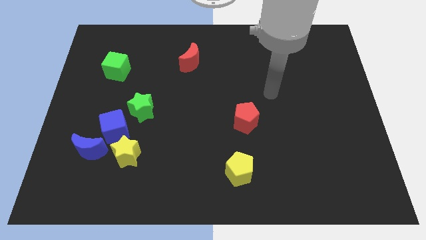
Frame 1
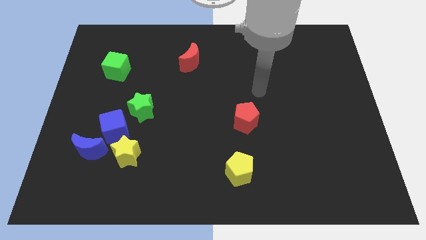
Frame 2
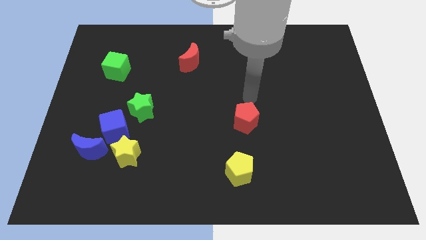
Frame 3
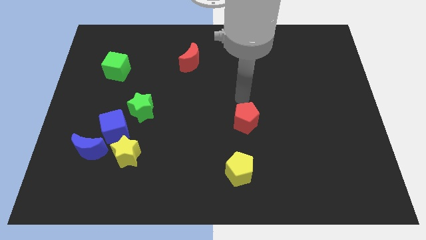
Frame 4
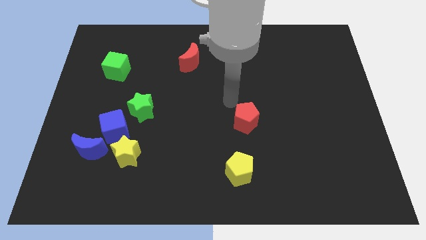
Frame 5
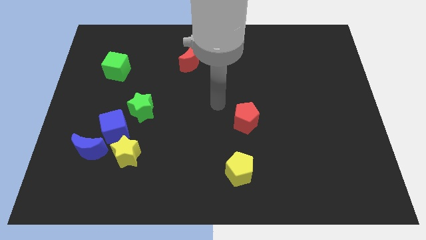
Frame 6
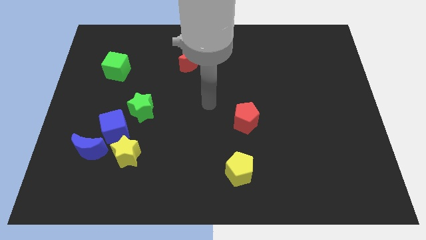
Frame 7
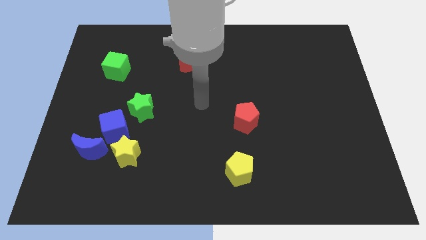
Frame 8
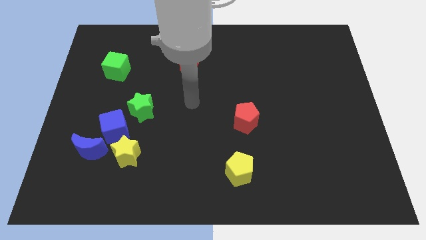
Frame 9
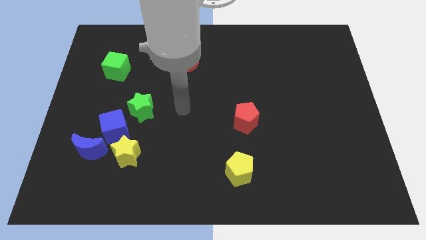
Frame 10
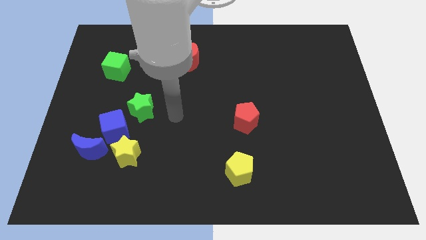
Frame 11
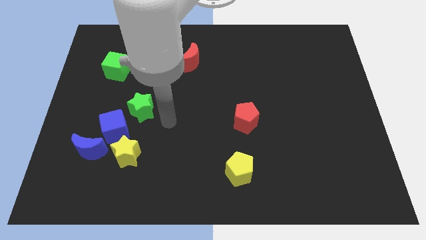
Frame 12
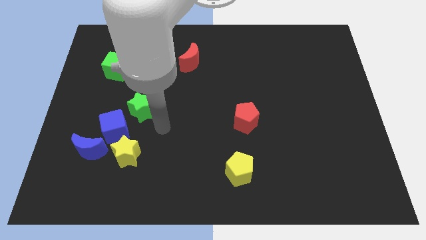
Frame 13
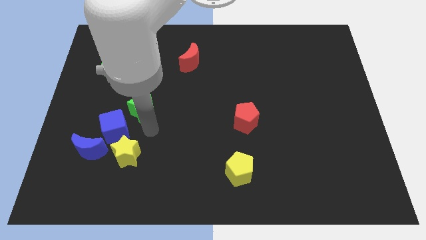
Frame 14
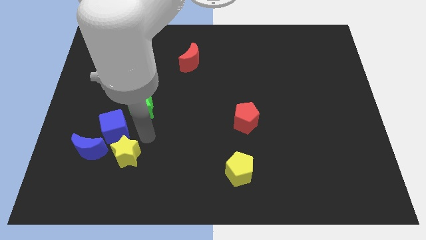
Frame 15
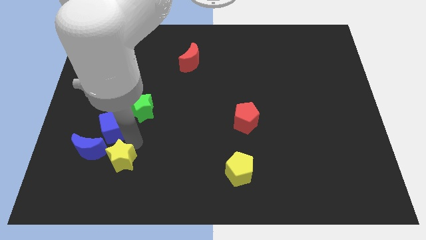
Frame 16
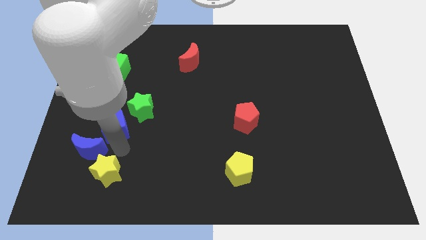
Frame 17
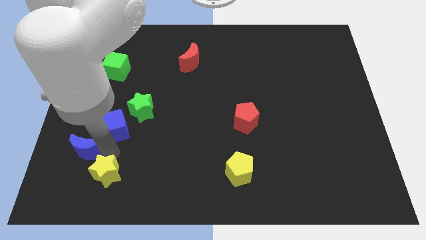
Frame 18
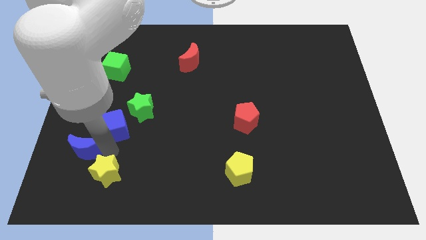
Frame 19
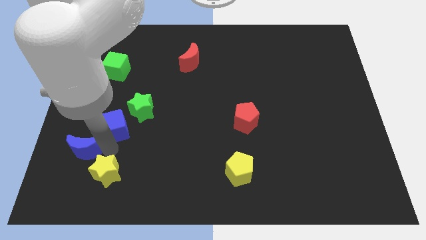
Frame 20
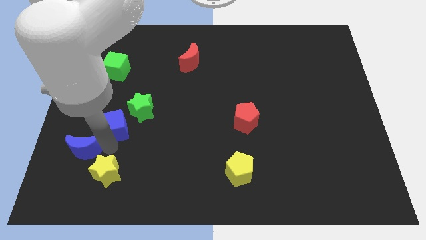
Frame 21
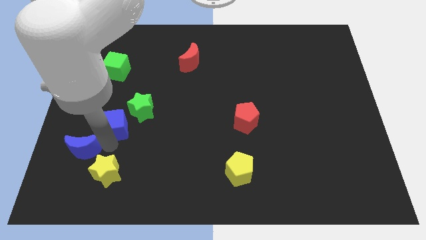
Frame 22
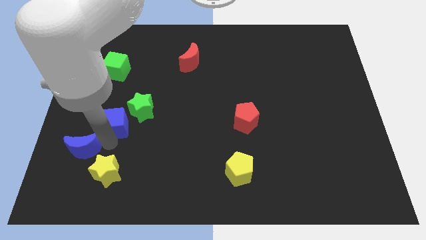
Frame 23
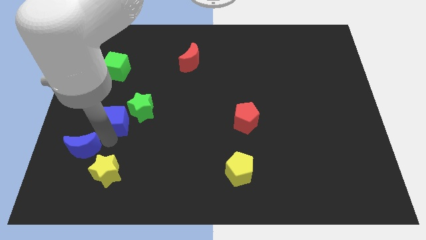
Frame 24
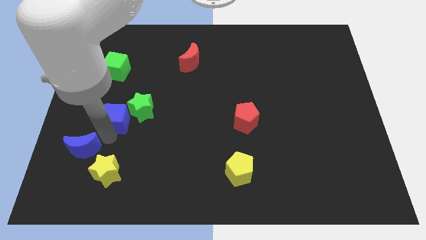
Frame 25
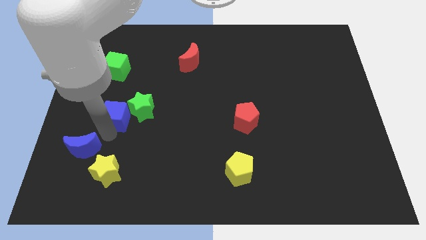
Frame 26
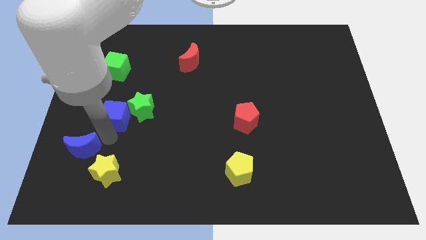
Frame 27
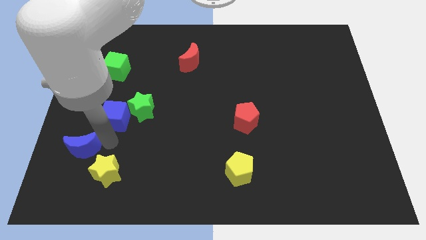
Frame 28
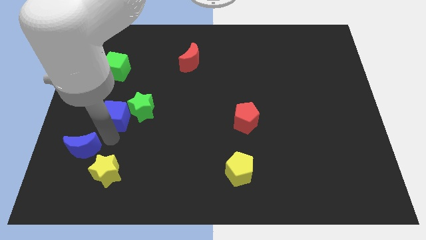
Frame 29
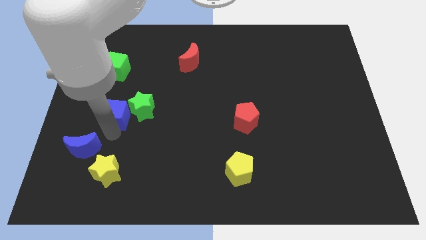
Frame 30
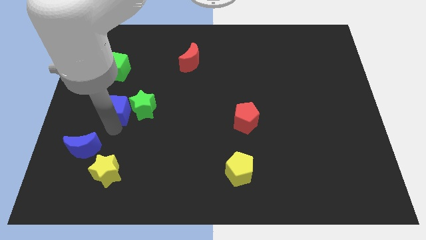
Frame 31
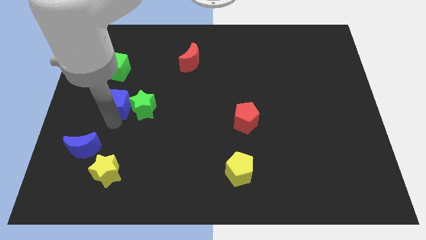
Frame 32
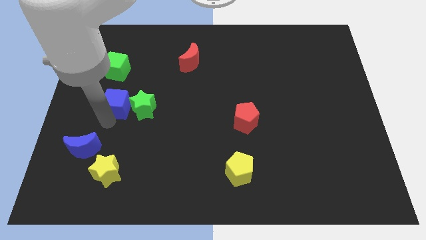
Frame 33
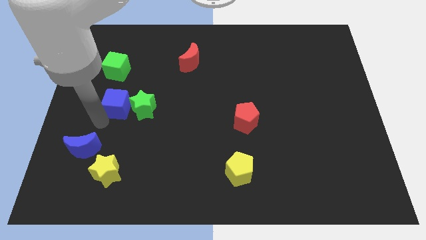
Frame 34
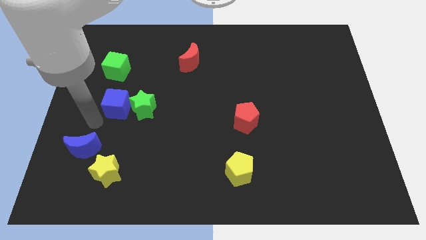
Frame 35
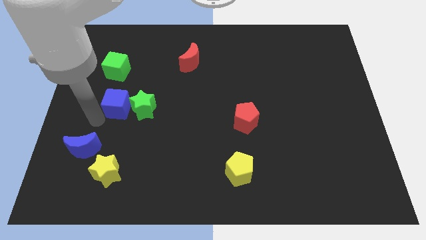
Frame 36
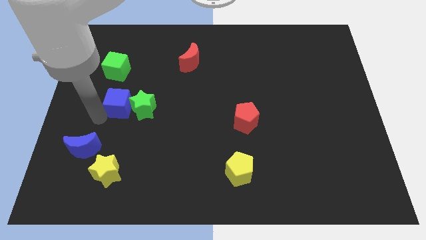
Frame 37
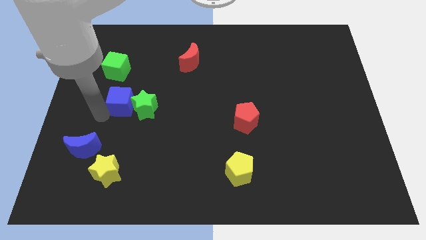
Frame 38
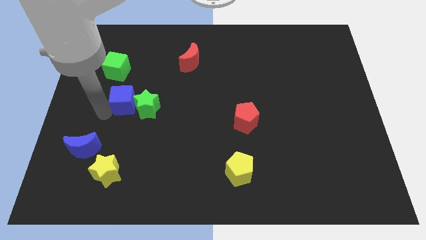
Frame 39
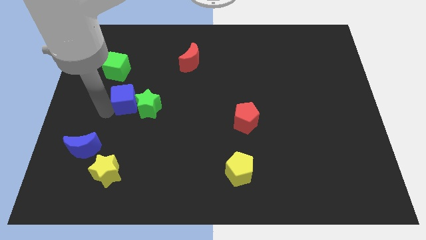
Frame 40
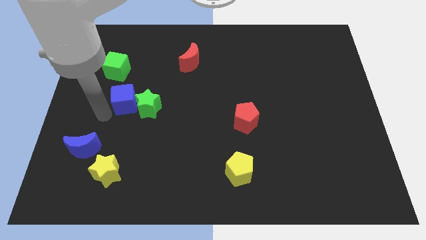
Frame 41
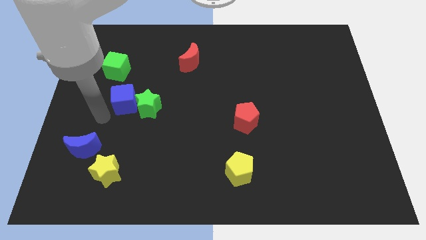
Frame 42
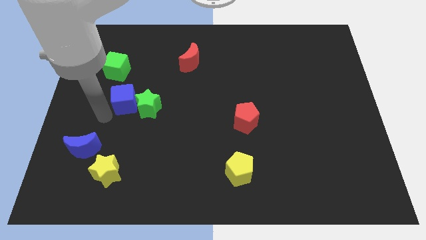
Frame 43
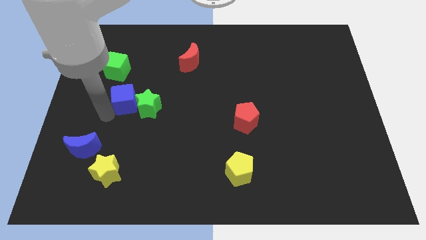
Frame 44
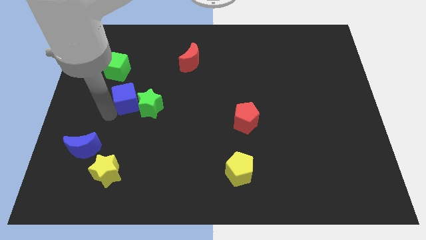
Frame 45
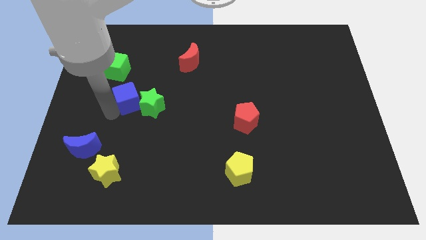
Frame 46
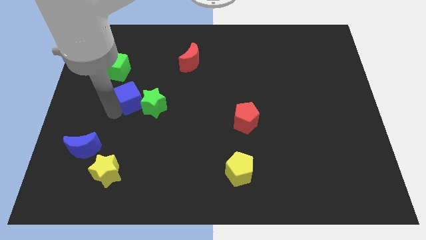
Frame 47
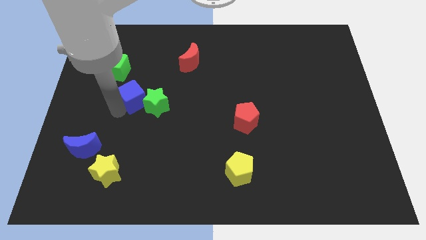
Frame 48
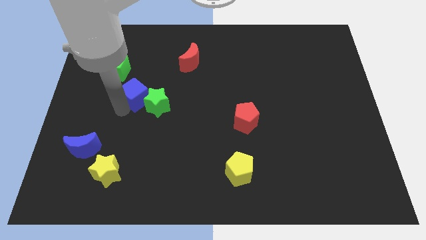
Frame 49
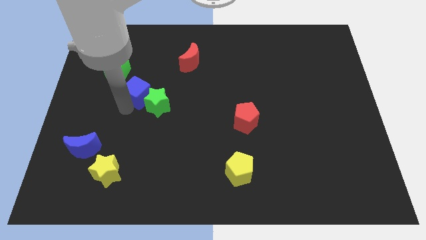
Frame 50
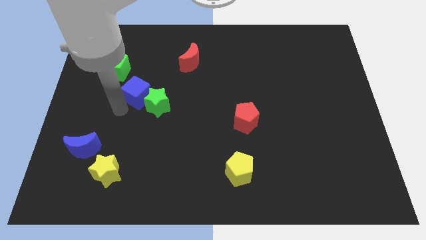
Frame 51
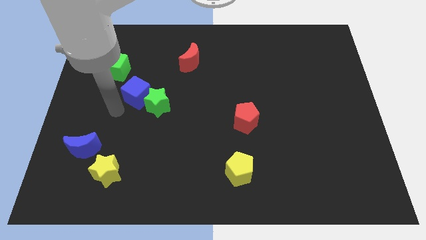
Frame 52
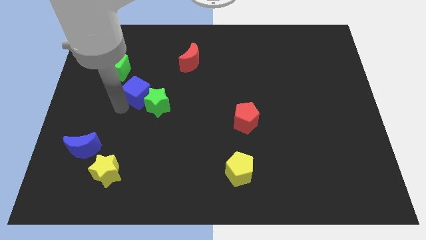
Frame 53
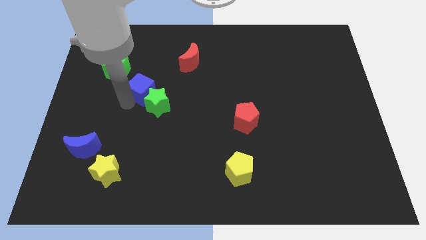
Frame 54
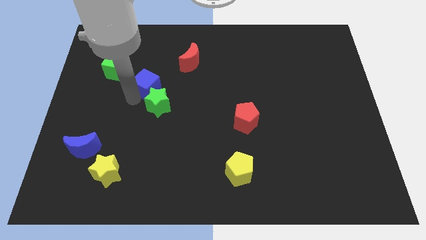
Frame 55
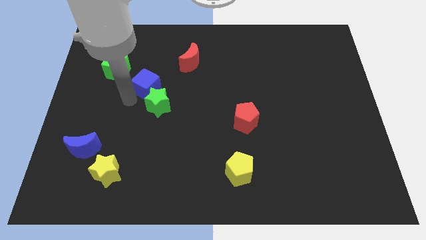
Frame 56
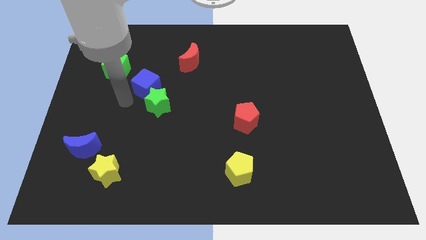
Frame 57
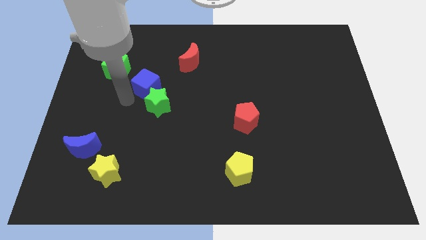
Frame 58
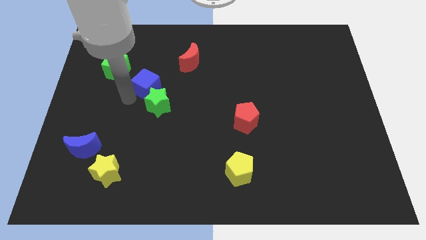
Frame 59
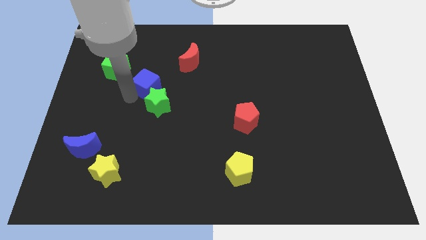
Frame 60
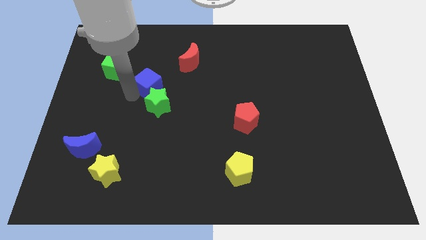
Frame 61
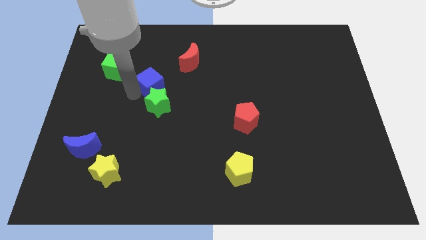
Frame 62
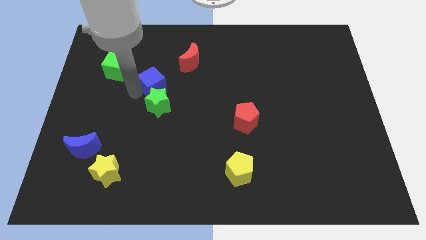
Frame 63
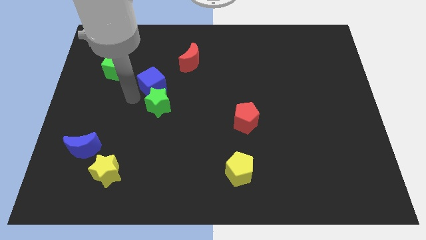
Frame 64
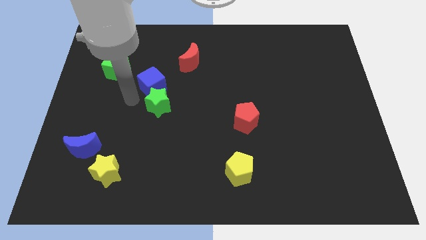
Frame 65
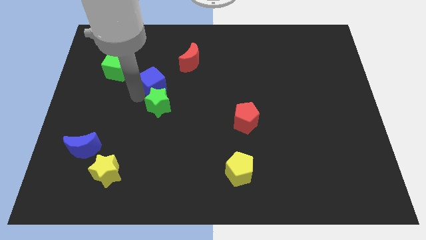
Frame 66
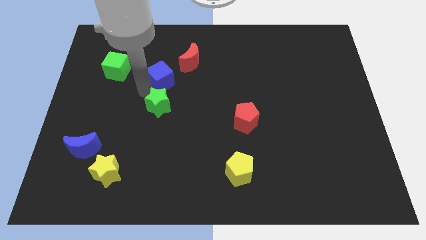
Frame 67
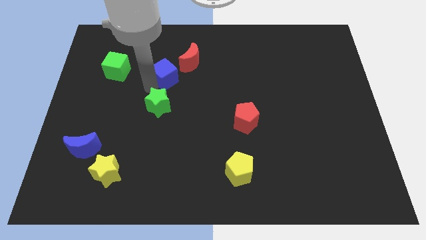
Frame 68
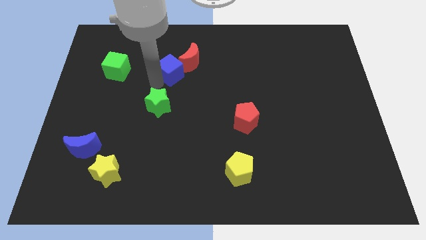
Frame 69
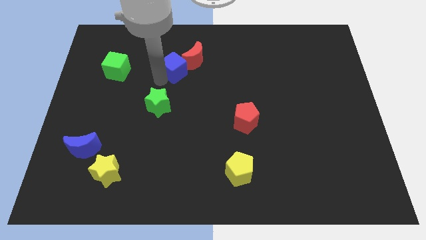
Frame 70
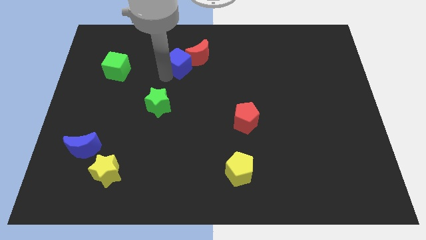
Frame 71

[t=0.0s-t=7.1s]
slide the blue cube to the red moon
